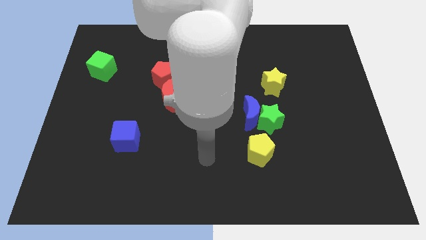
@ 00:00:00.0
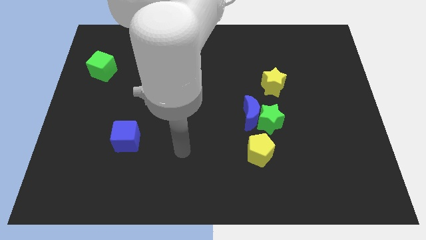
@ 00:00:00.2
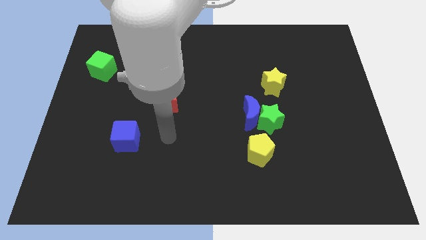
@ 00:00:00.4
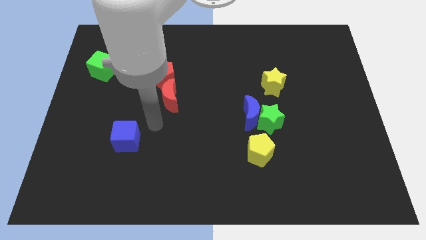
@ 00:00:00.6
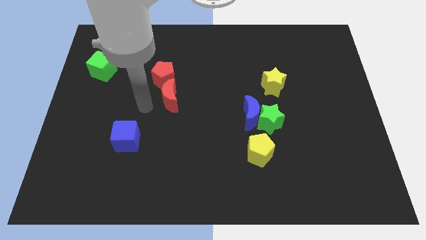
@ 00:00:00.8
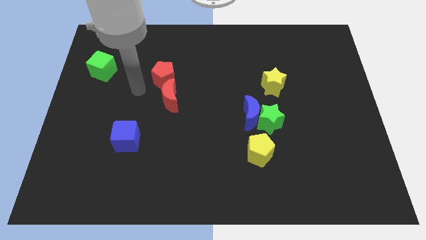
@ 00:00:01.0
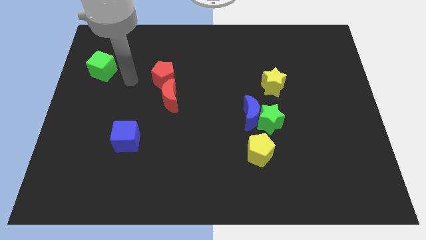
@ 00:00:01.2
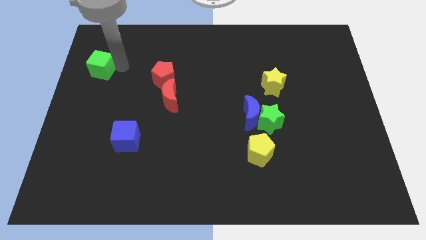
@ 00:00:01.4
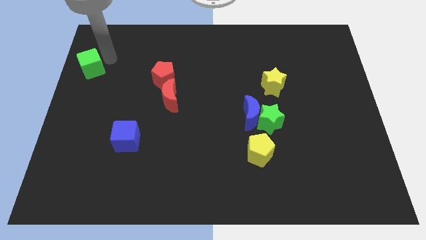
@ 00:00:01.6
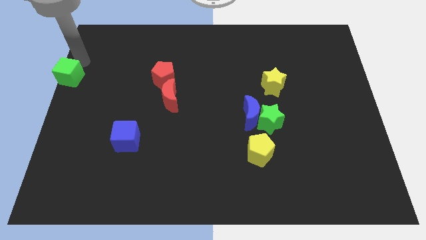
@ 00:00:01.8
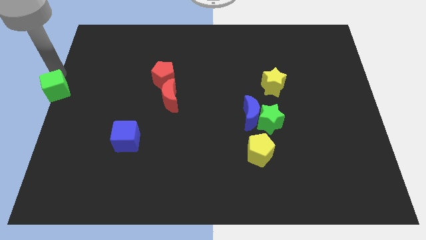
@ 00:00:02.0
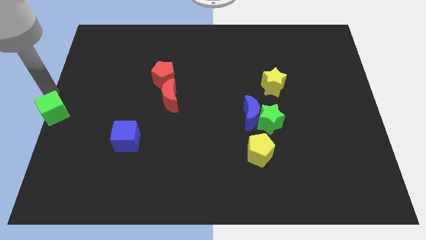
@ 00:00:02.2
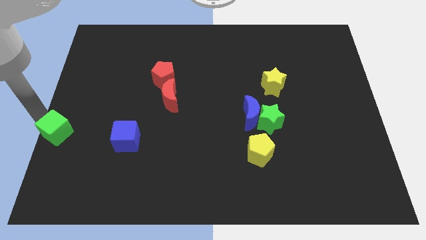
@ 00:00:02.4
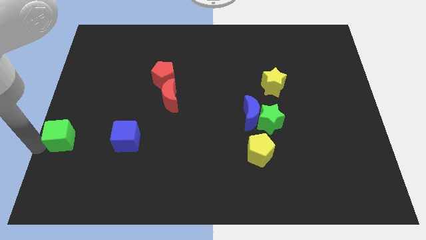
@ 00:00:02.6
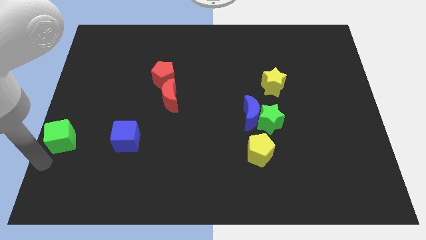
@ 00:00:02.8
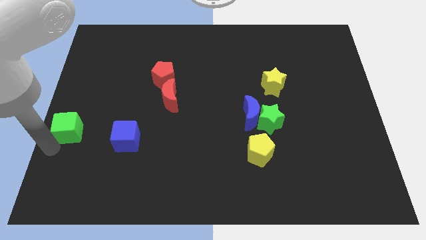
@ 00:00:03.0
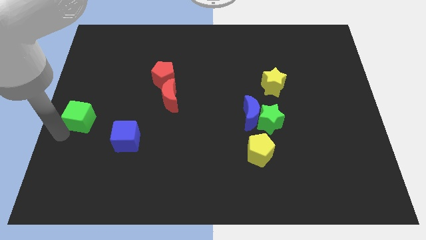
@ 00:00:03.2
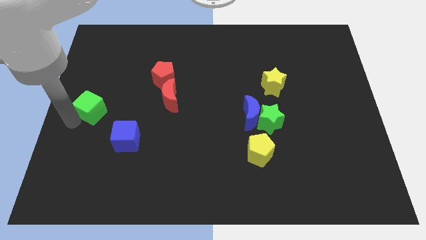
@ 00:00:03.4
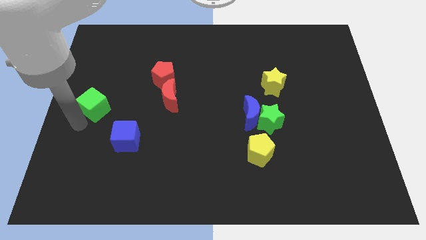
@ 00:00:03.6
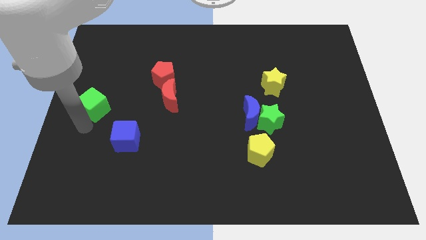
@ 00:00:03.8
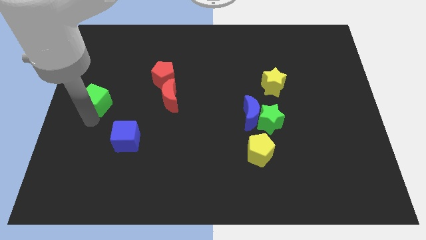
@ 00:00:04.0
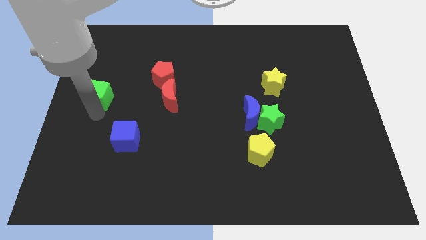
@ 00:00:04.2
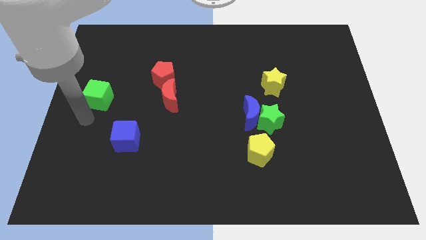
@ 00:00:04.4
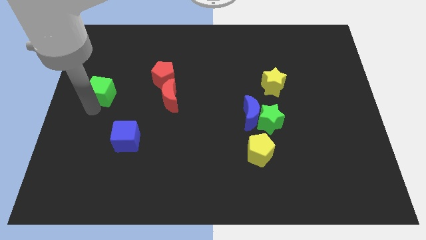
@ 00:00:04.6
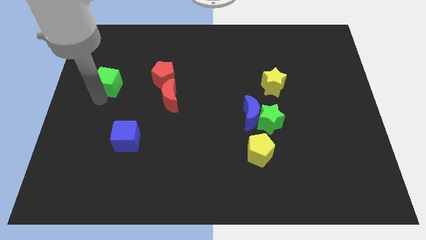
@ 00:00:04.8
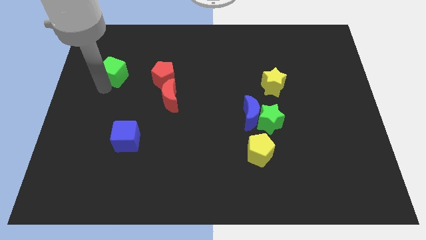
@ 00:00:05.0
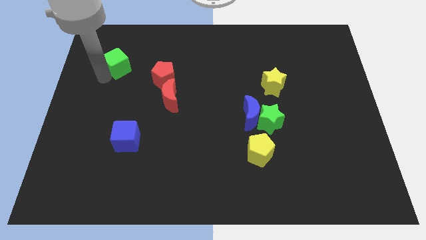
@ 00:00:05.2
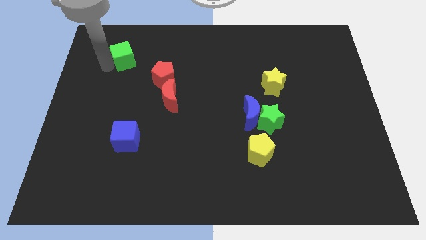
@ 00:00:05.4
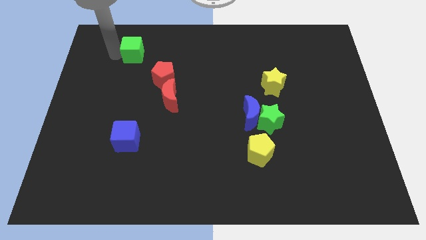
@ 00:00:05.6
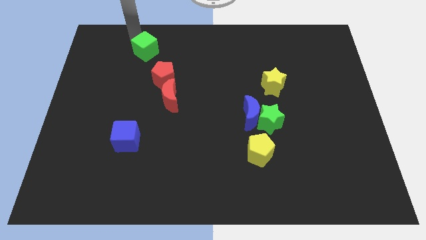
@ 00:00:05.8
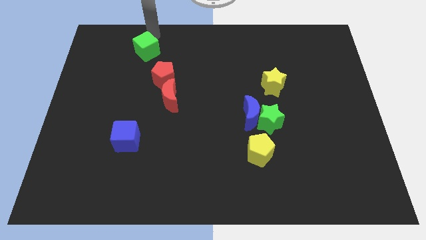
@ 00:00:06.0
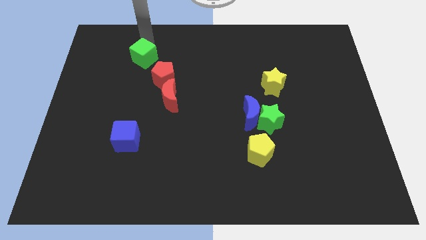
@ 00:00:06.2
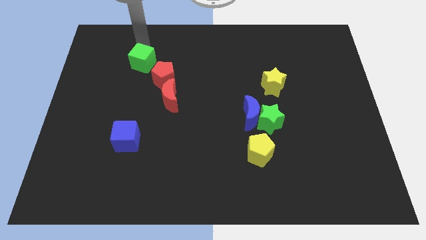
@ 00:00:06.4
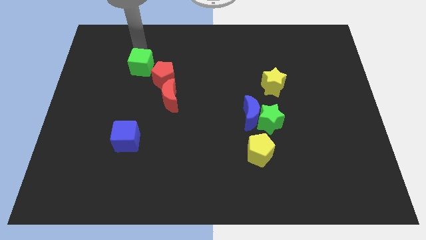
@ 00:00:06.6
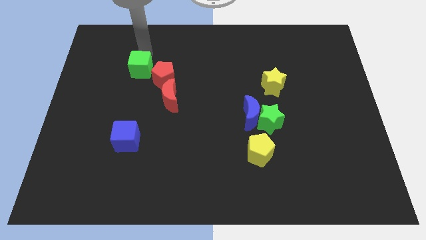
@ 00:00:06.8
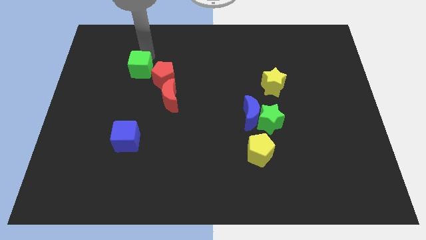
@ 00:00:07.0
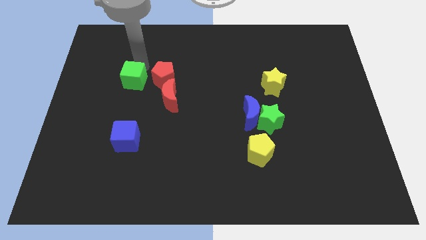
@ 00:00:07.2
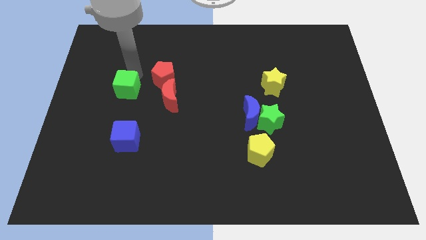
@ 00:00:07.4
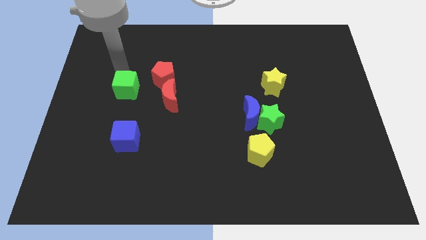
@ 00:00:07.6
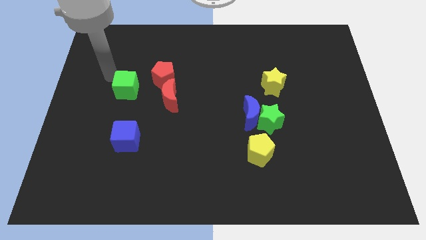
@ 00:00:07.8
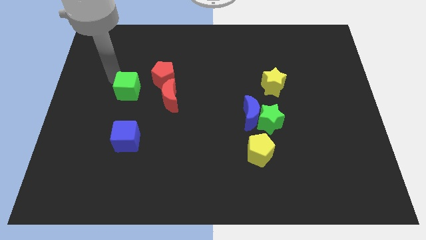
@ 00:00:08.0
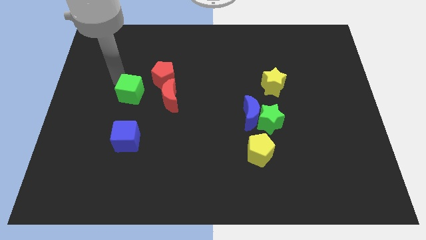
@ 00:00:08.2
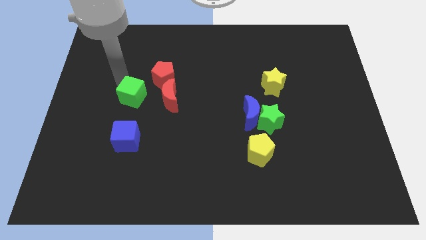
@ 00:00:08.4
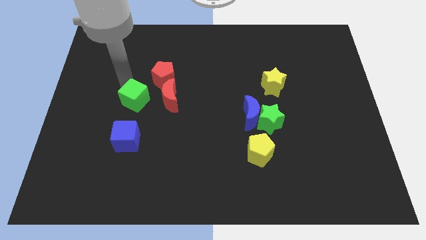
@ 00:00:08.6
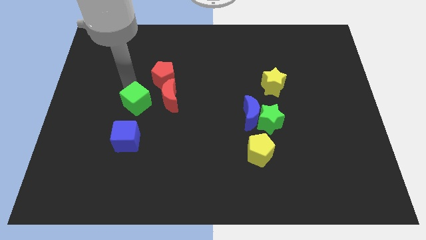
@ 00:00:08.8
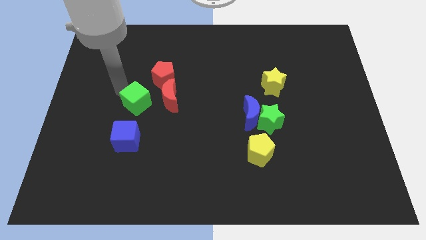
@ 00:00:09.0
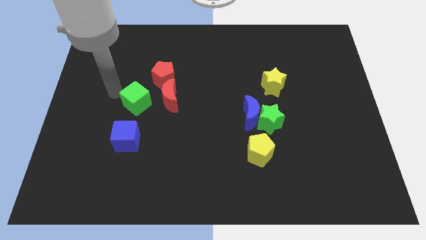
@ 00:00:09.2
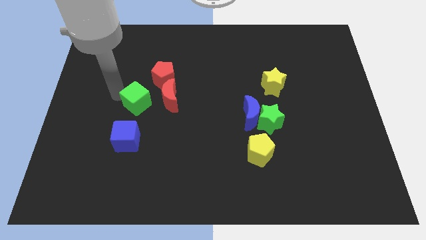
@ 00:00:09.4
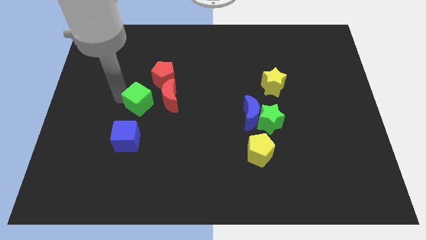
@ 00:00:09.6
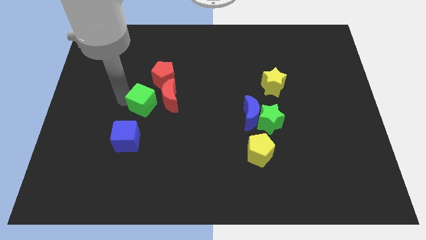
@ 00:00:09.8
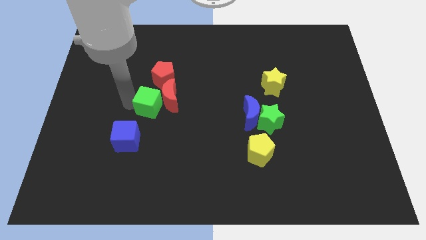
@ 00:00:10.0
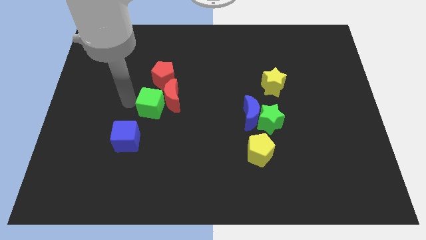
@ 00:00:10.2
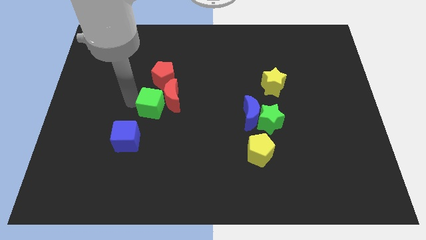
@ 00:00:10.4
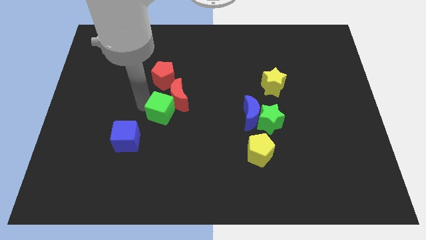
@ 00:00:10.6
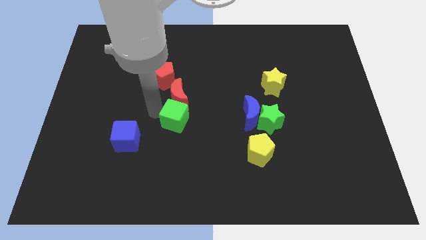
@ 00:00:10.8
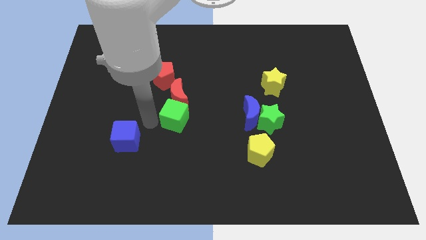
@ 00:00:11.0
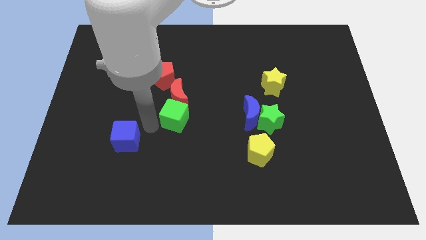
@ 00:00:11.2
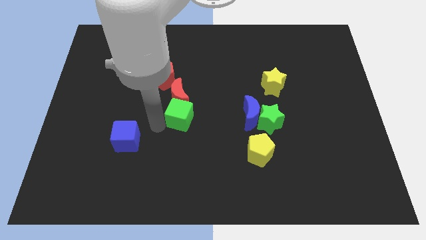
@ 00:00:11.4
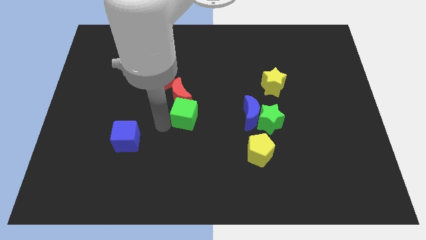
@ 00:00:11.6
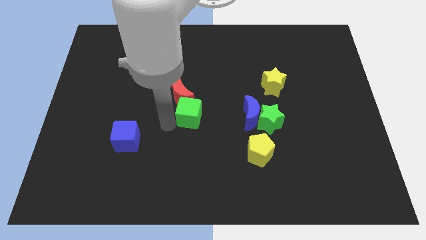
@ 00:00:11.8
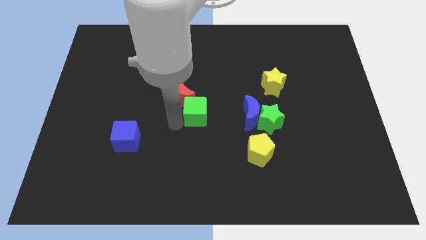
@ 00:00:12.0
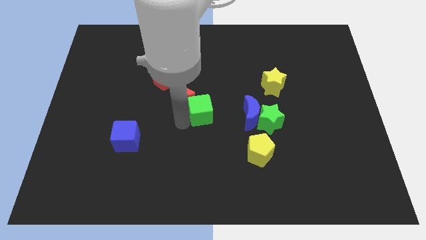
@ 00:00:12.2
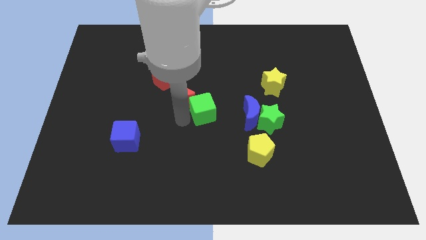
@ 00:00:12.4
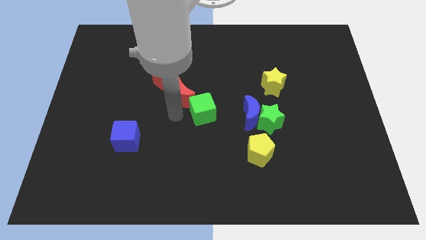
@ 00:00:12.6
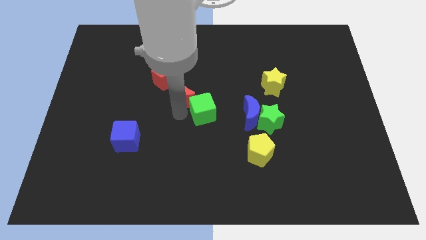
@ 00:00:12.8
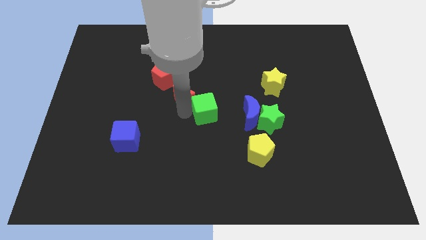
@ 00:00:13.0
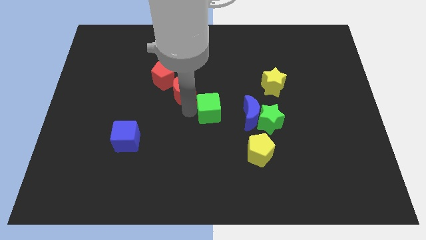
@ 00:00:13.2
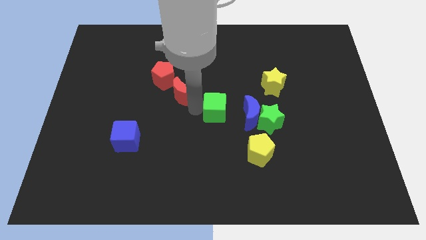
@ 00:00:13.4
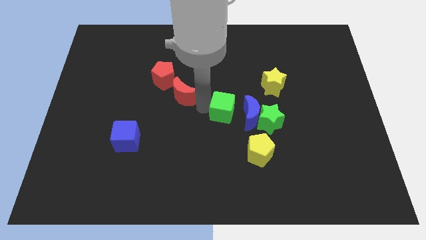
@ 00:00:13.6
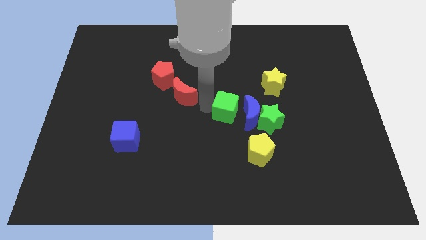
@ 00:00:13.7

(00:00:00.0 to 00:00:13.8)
push the green cube close to the blue moon

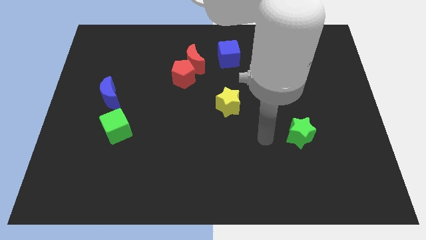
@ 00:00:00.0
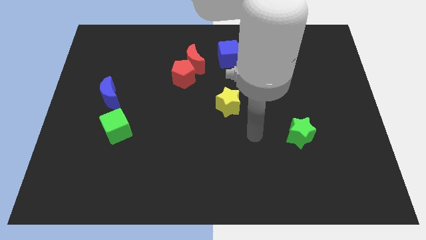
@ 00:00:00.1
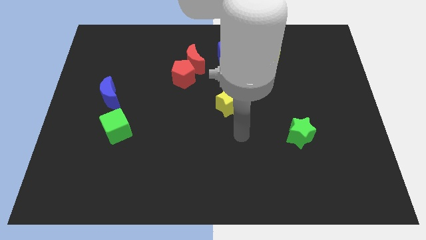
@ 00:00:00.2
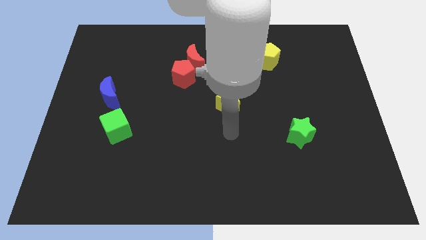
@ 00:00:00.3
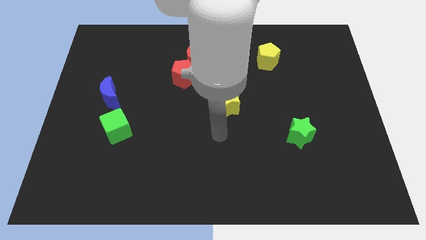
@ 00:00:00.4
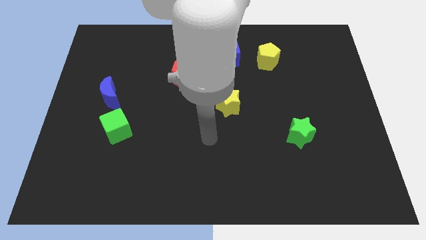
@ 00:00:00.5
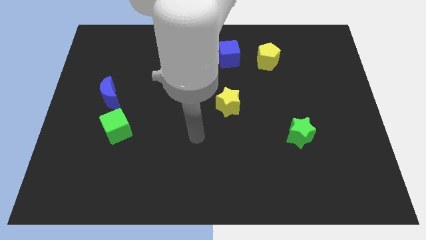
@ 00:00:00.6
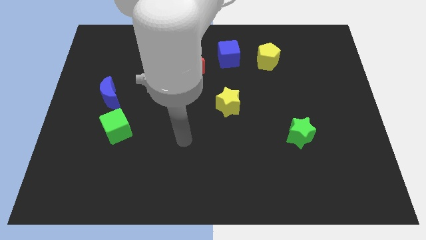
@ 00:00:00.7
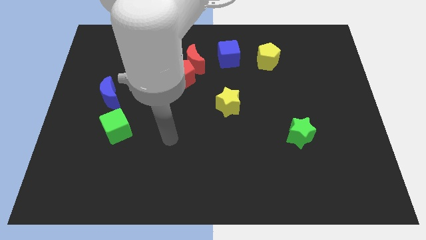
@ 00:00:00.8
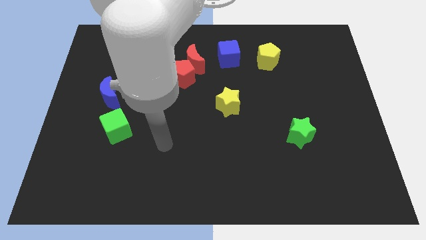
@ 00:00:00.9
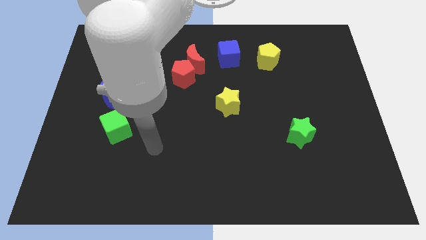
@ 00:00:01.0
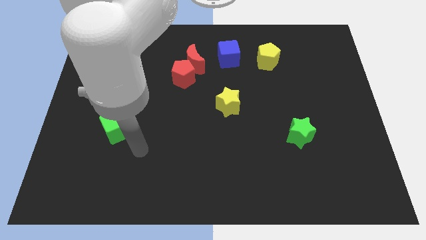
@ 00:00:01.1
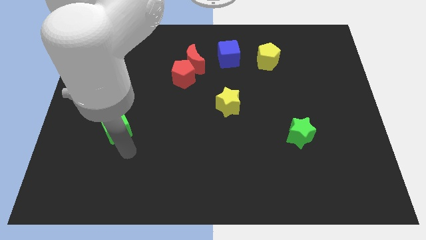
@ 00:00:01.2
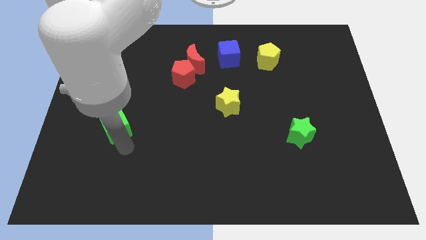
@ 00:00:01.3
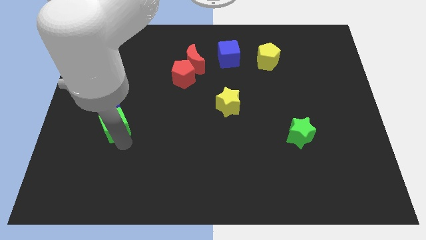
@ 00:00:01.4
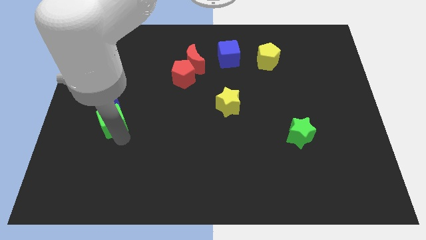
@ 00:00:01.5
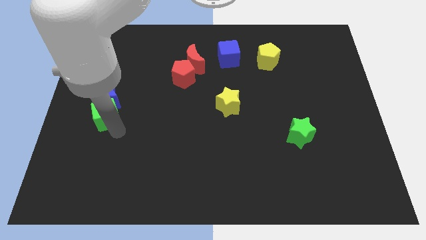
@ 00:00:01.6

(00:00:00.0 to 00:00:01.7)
push the green cube next to the blue moon
